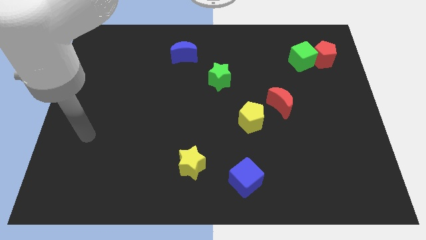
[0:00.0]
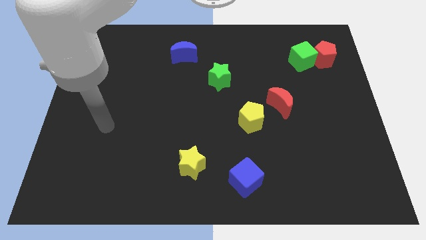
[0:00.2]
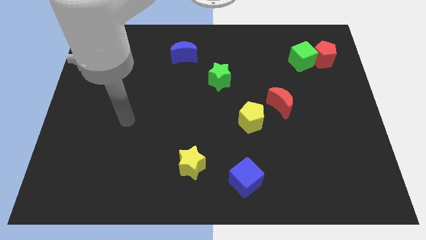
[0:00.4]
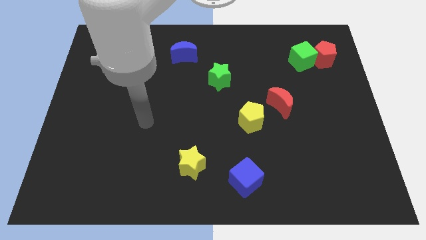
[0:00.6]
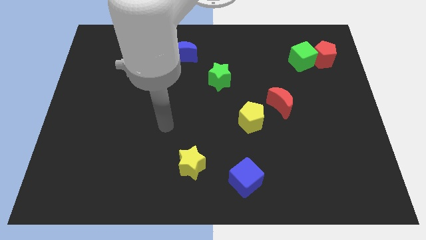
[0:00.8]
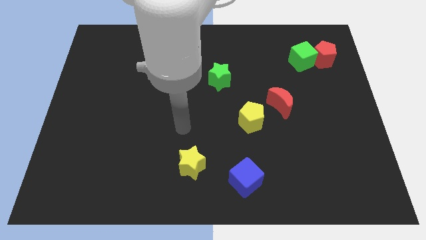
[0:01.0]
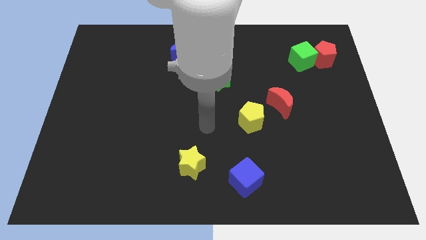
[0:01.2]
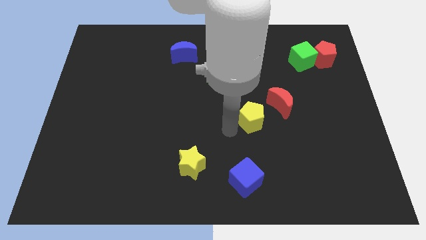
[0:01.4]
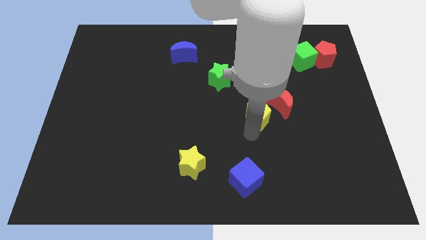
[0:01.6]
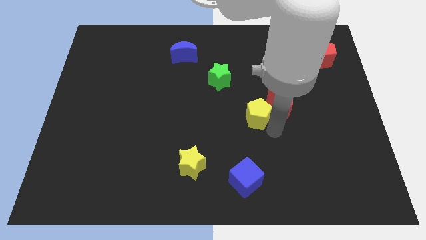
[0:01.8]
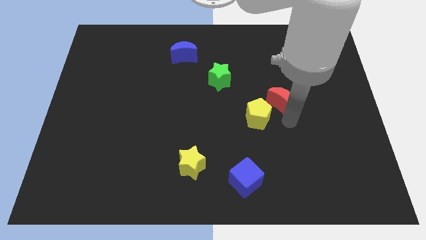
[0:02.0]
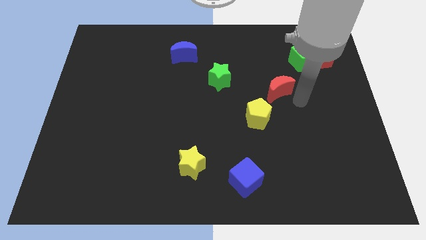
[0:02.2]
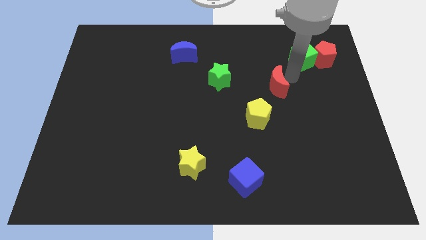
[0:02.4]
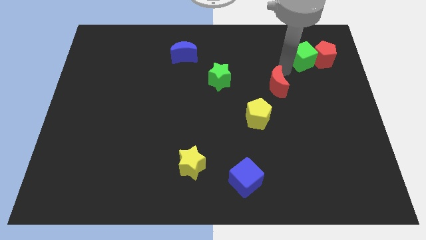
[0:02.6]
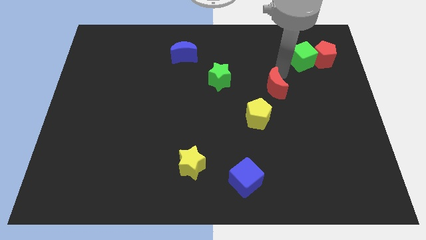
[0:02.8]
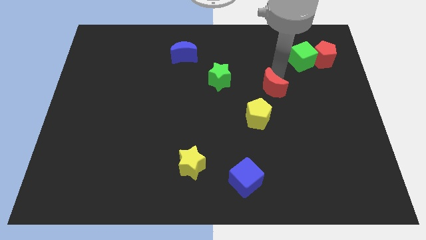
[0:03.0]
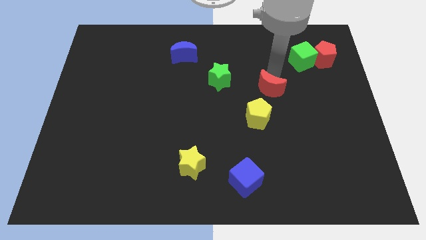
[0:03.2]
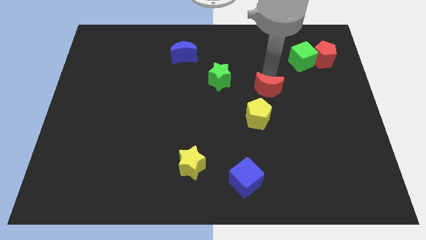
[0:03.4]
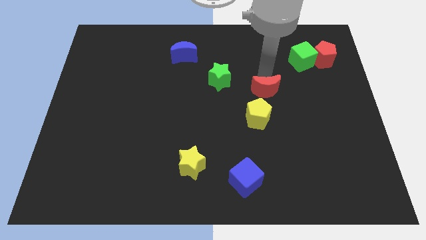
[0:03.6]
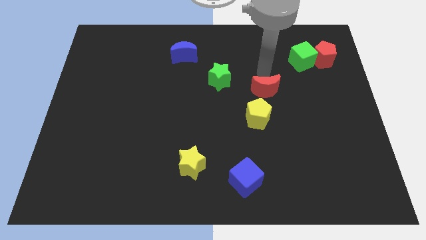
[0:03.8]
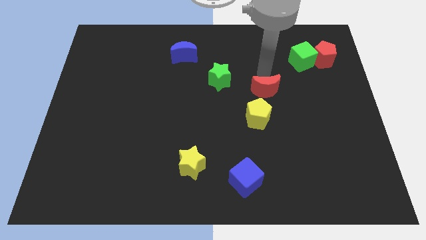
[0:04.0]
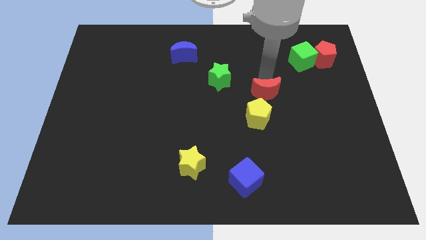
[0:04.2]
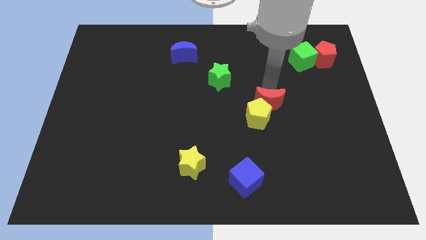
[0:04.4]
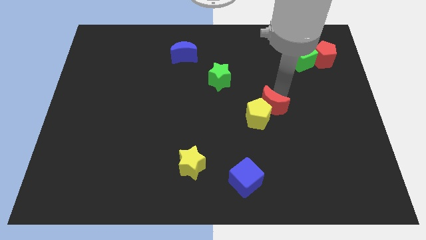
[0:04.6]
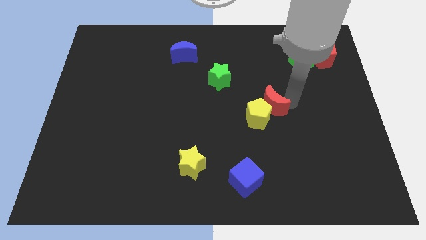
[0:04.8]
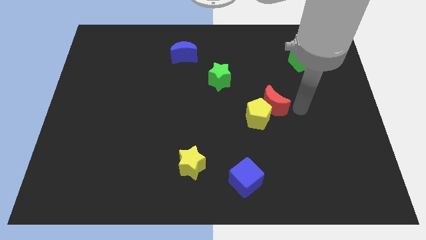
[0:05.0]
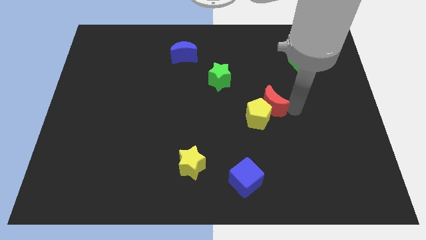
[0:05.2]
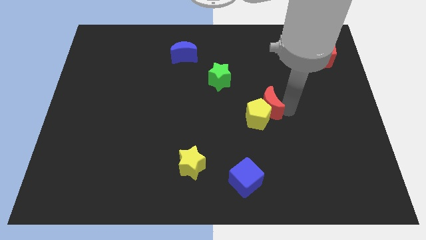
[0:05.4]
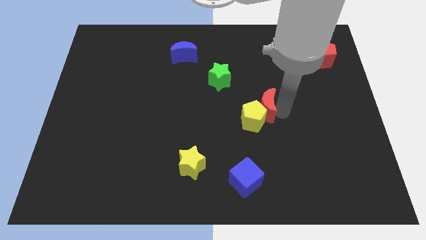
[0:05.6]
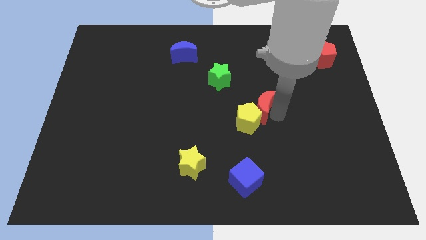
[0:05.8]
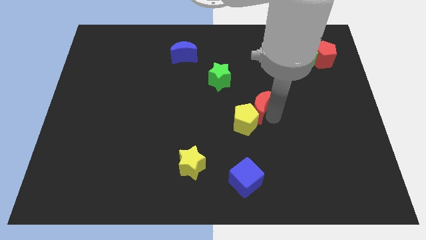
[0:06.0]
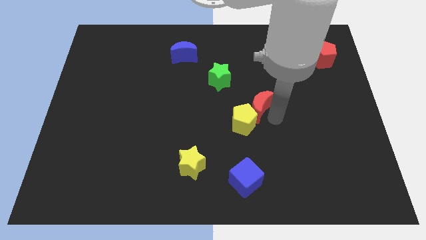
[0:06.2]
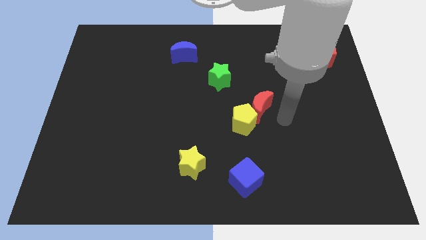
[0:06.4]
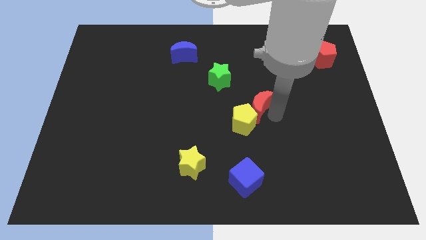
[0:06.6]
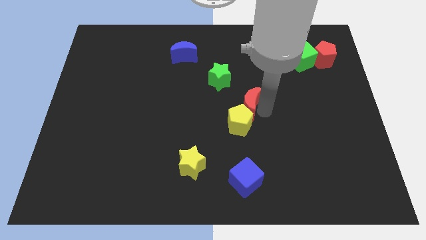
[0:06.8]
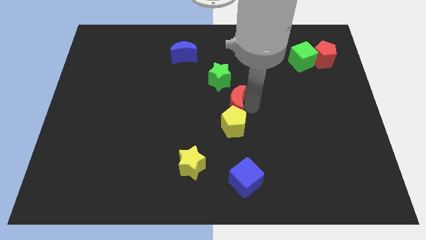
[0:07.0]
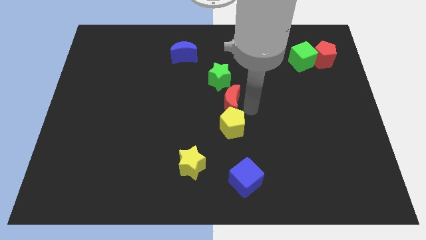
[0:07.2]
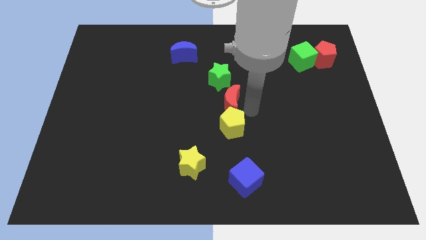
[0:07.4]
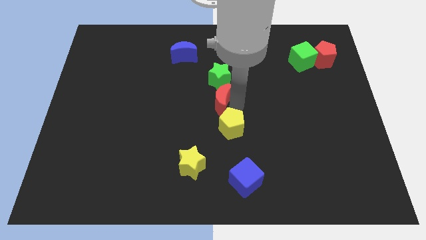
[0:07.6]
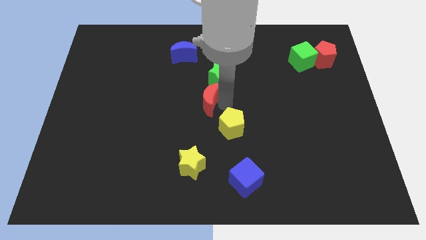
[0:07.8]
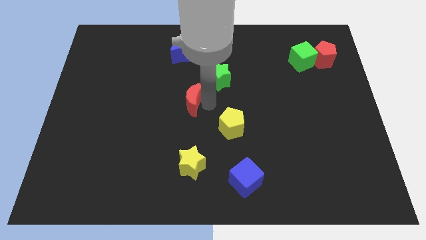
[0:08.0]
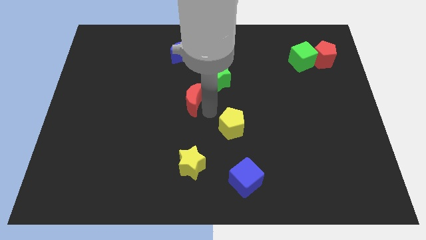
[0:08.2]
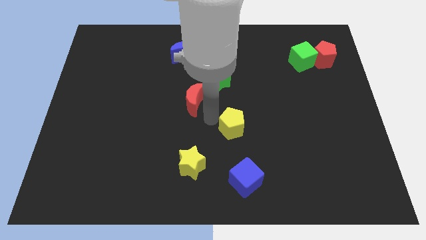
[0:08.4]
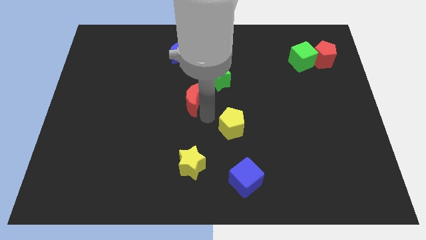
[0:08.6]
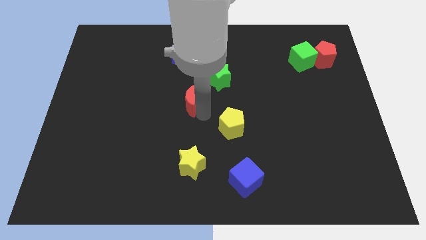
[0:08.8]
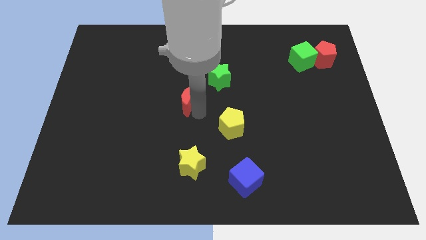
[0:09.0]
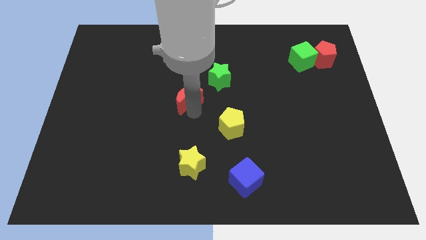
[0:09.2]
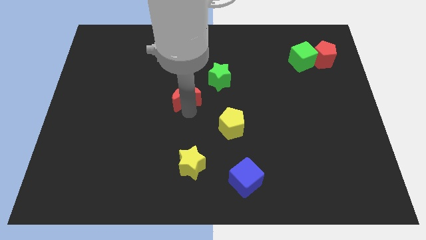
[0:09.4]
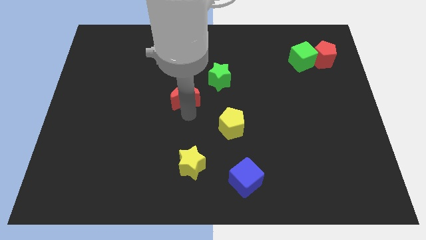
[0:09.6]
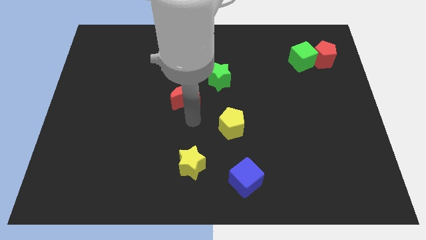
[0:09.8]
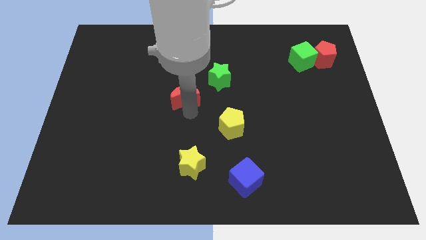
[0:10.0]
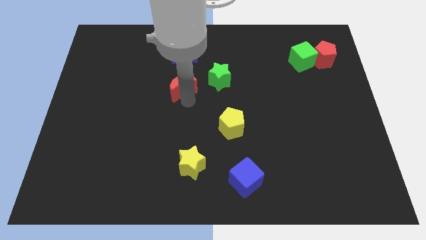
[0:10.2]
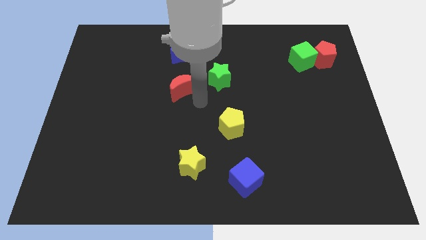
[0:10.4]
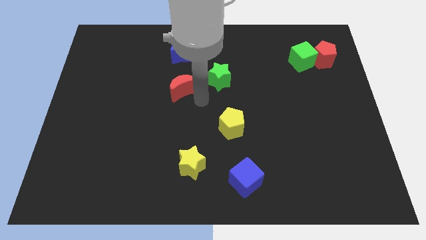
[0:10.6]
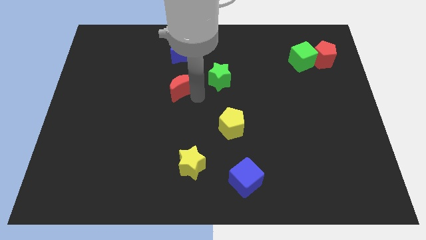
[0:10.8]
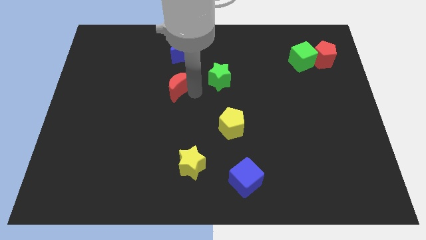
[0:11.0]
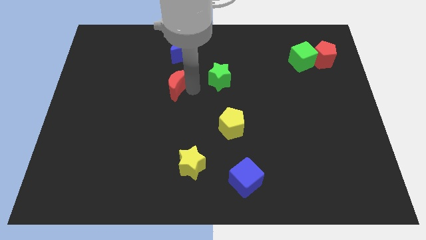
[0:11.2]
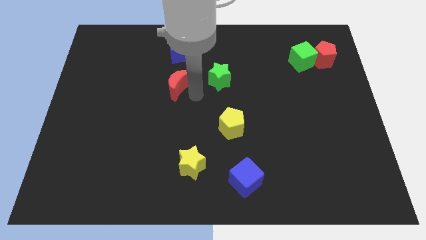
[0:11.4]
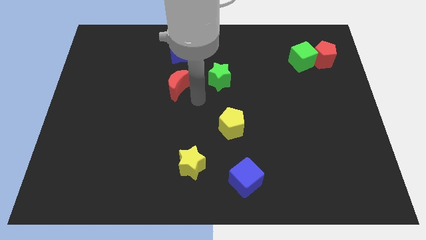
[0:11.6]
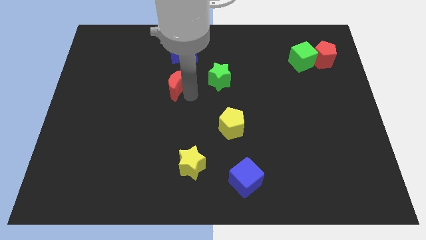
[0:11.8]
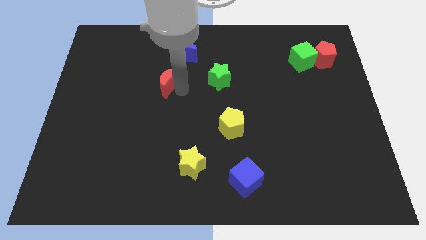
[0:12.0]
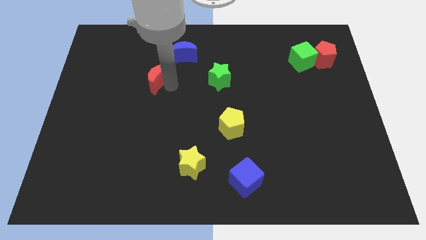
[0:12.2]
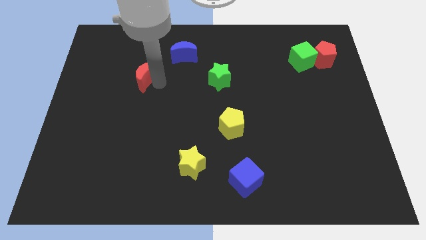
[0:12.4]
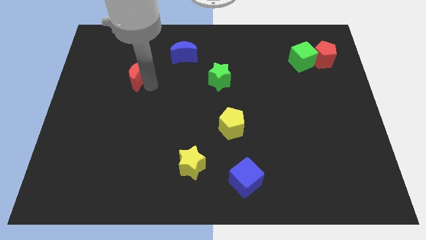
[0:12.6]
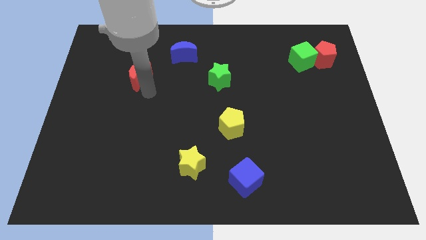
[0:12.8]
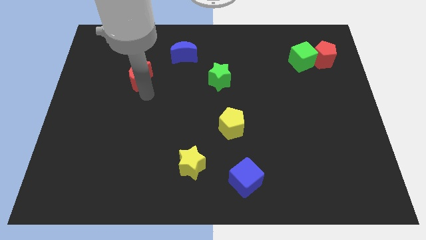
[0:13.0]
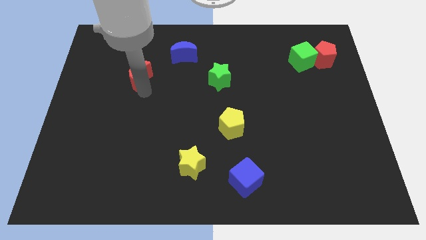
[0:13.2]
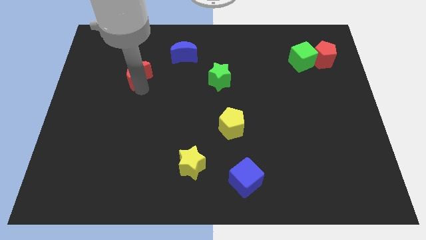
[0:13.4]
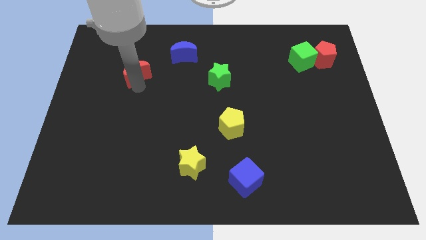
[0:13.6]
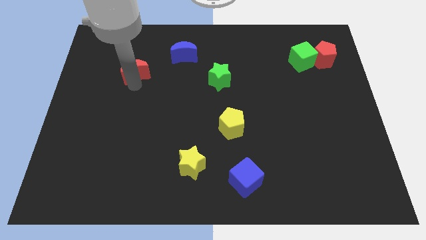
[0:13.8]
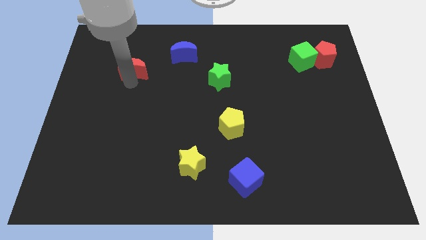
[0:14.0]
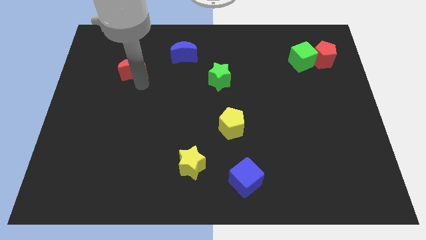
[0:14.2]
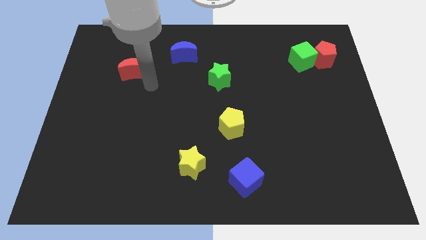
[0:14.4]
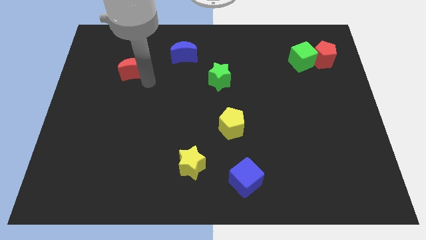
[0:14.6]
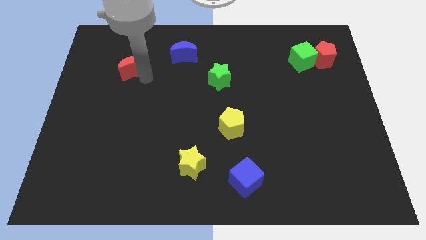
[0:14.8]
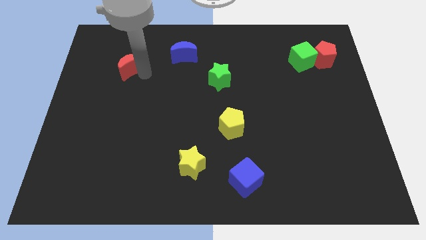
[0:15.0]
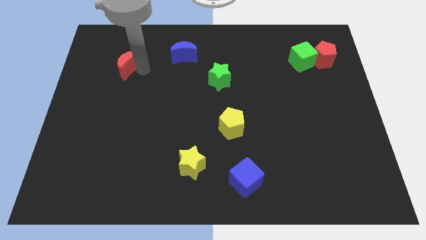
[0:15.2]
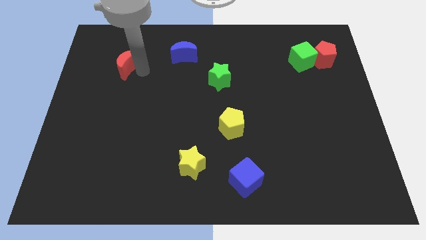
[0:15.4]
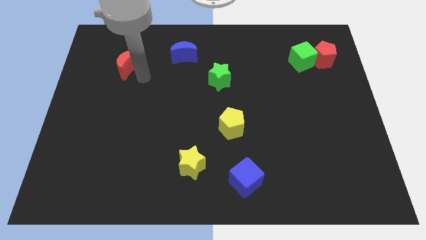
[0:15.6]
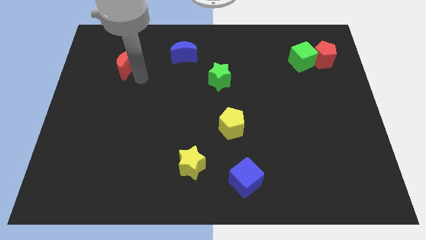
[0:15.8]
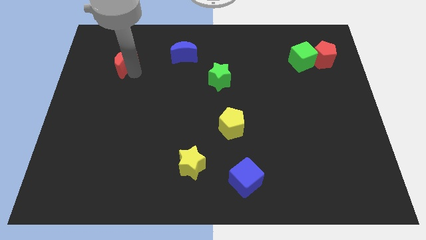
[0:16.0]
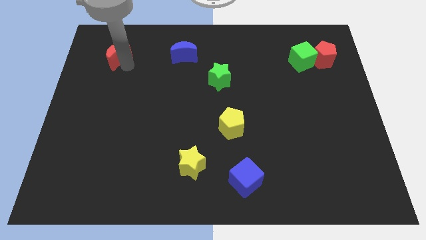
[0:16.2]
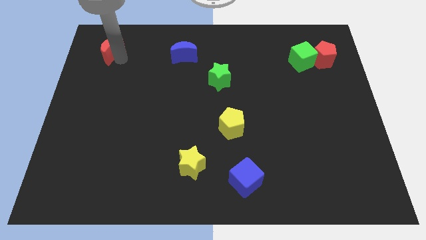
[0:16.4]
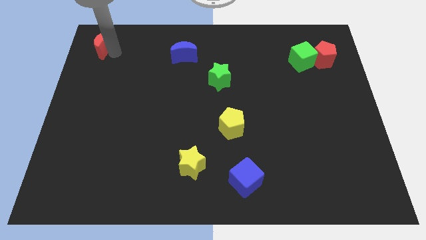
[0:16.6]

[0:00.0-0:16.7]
push the red moon to the top left corner
